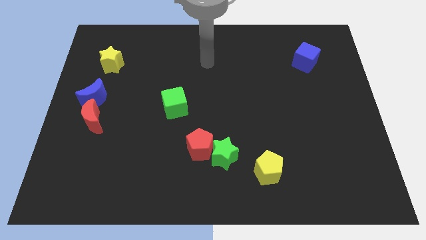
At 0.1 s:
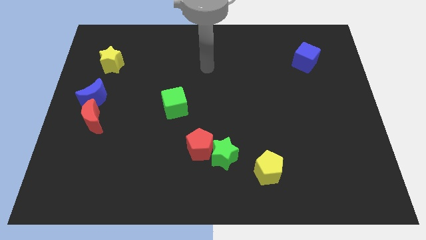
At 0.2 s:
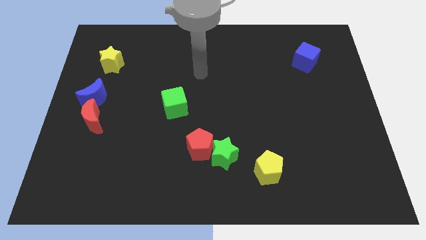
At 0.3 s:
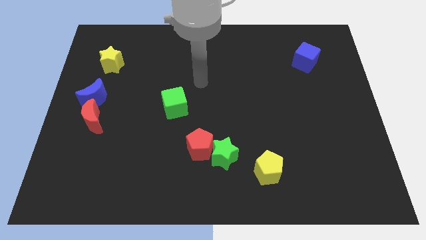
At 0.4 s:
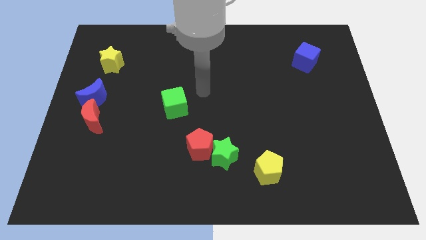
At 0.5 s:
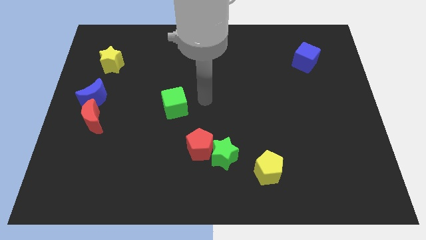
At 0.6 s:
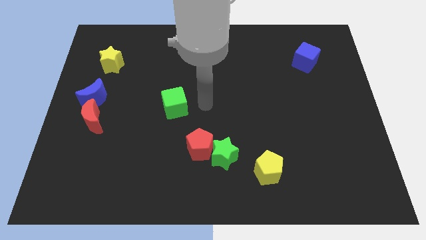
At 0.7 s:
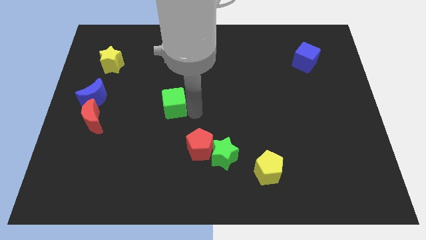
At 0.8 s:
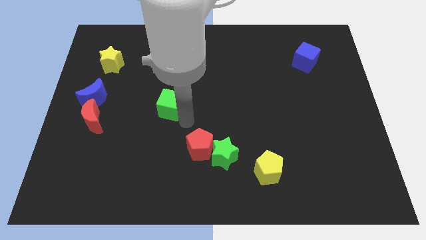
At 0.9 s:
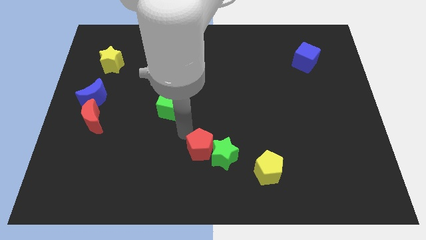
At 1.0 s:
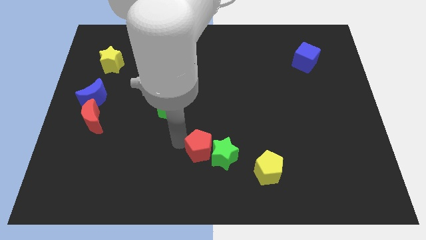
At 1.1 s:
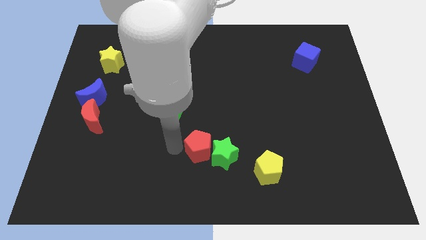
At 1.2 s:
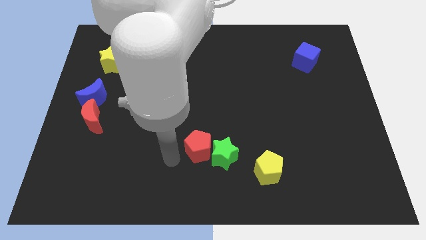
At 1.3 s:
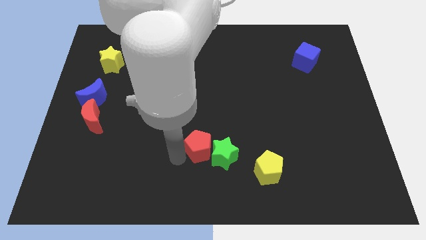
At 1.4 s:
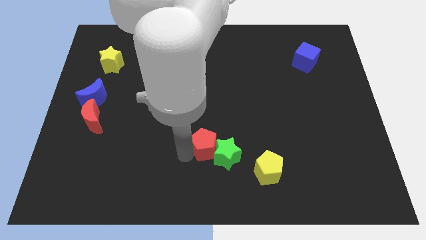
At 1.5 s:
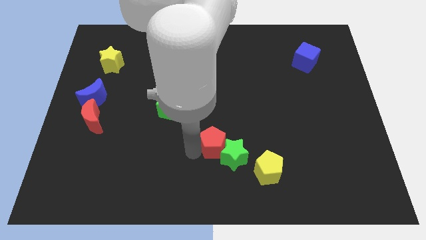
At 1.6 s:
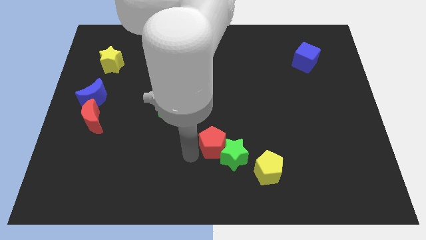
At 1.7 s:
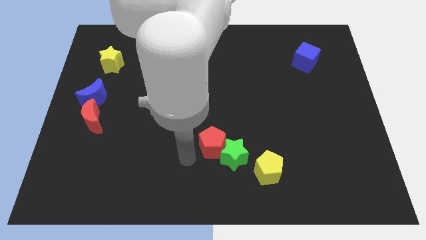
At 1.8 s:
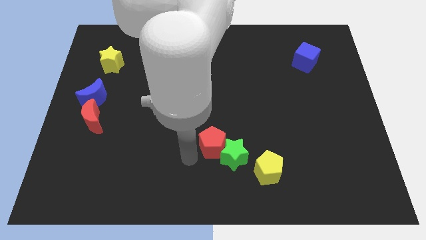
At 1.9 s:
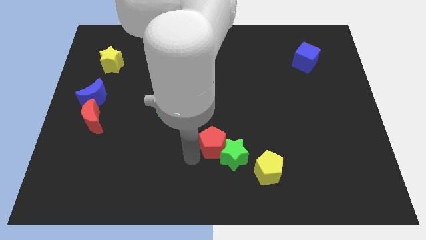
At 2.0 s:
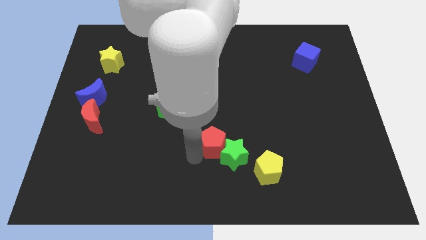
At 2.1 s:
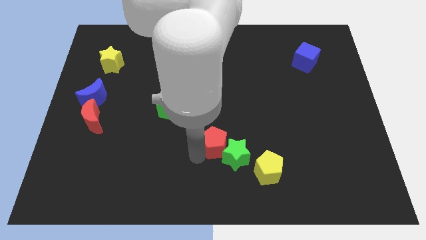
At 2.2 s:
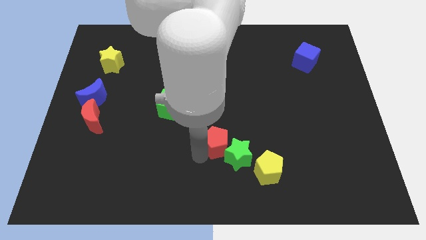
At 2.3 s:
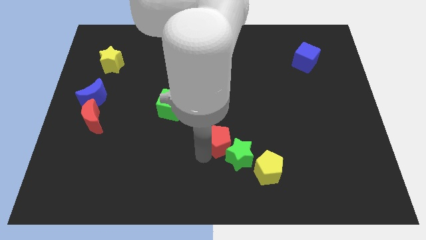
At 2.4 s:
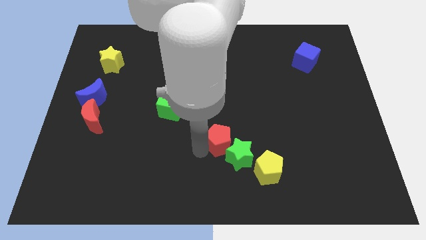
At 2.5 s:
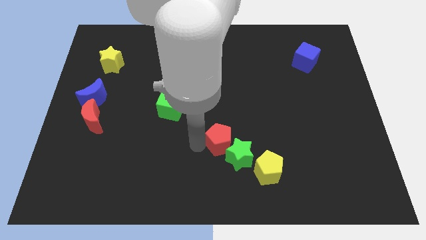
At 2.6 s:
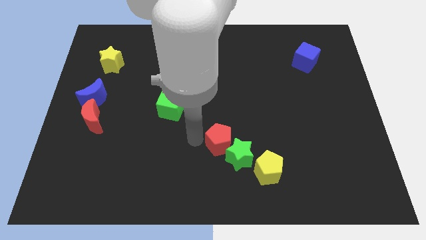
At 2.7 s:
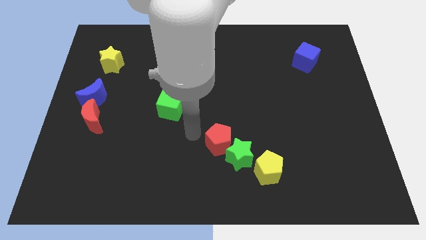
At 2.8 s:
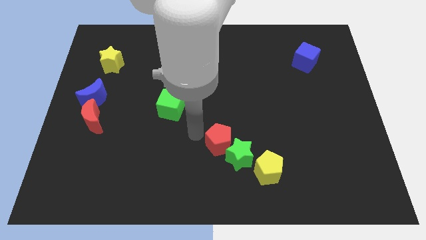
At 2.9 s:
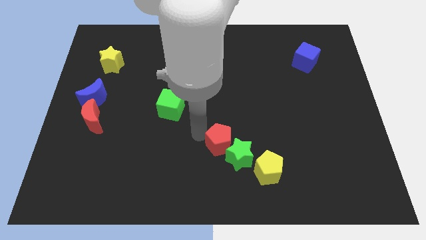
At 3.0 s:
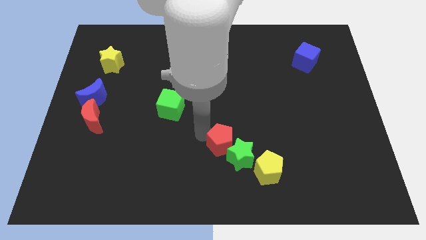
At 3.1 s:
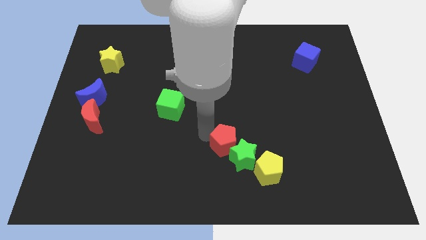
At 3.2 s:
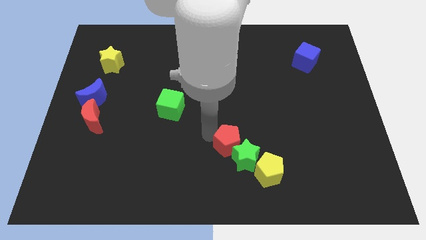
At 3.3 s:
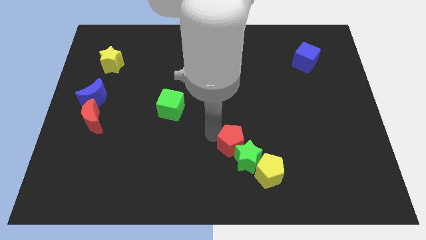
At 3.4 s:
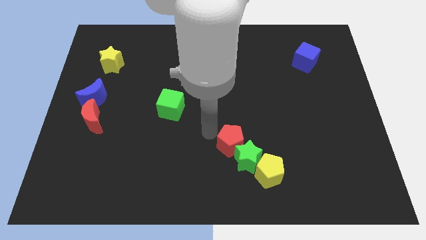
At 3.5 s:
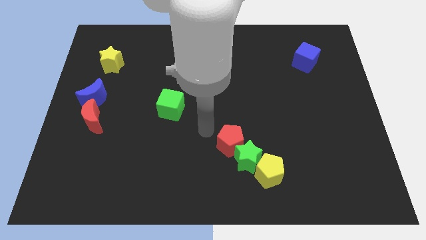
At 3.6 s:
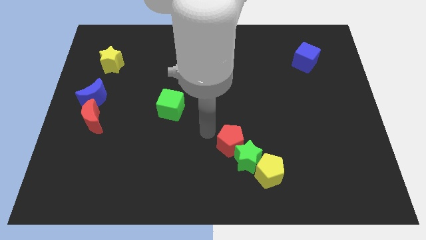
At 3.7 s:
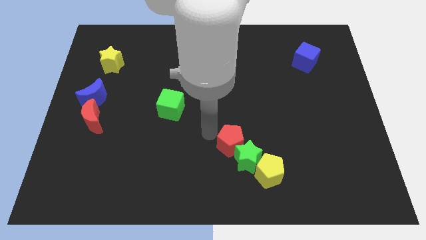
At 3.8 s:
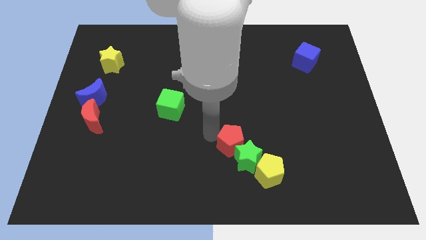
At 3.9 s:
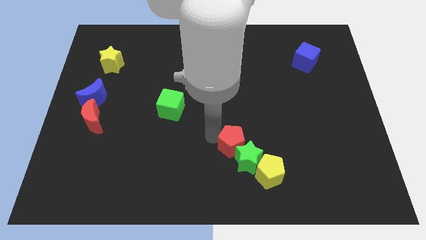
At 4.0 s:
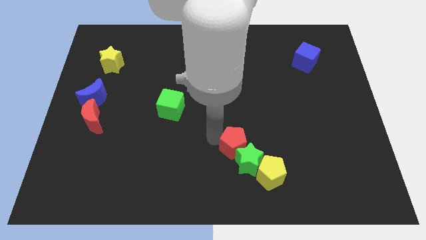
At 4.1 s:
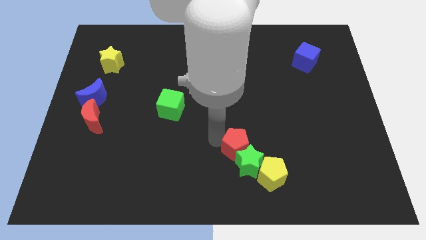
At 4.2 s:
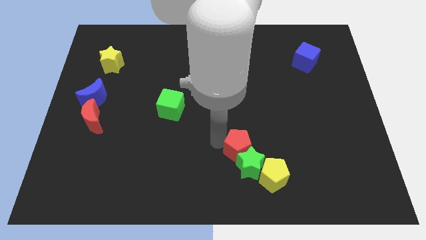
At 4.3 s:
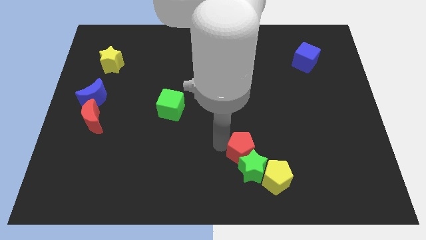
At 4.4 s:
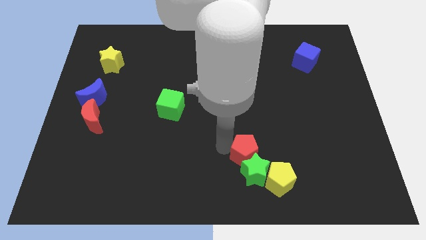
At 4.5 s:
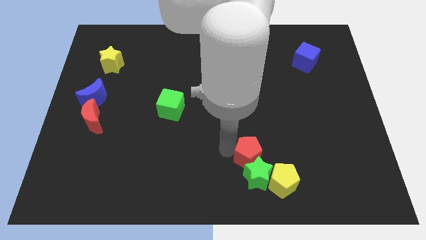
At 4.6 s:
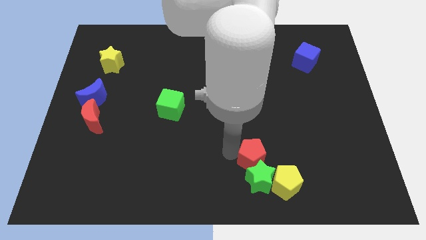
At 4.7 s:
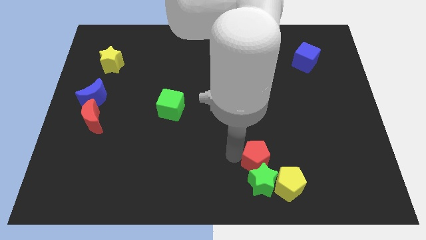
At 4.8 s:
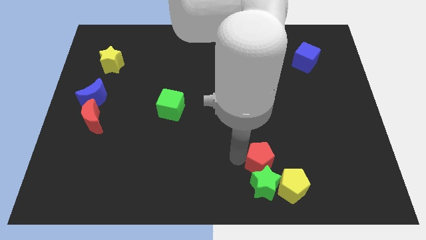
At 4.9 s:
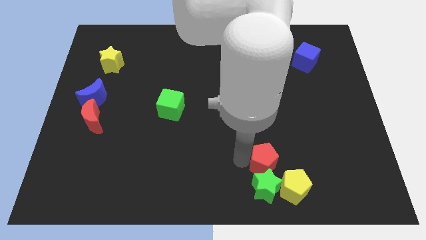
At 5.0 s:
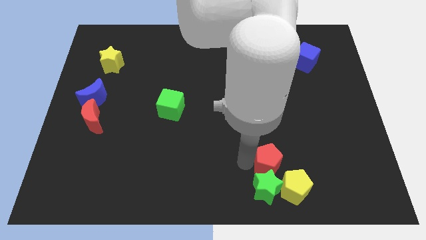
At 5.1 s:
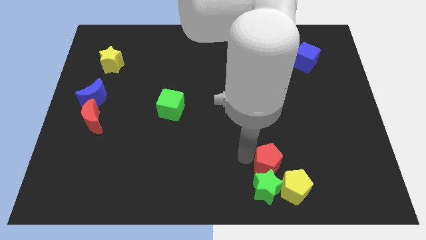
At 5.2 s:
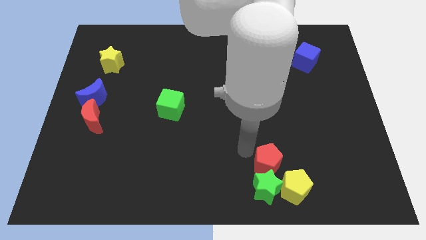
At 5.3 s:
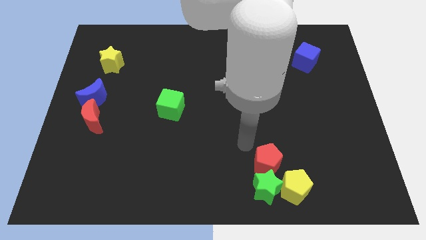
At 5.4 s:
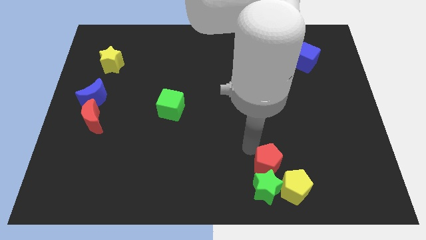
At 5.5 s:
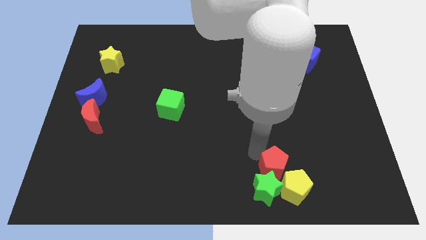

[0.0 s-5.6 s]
move the red pentagon to the yellow pentagon

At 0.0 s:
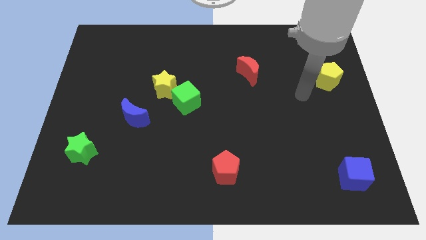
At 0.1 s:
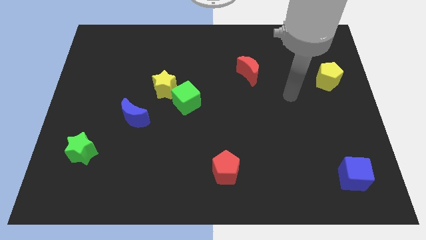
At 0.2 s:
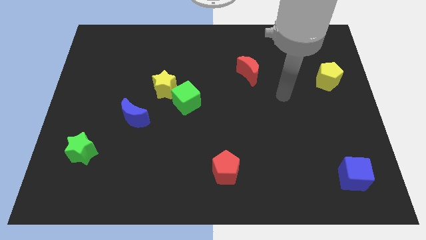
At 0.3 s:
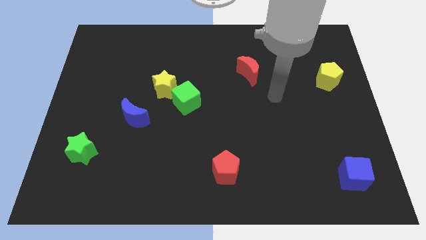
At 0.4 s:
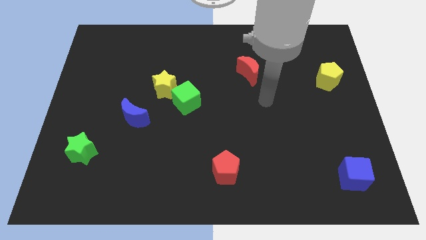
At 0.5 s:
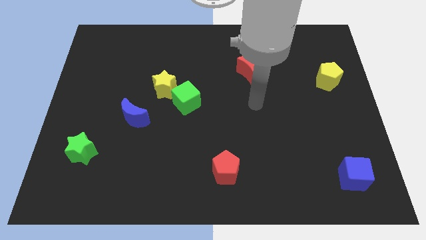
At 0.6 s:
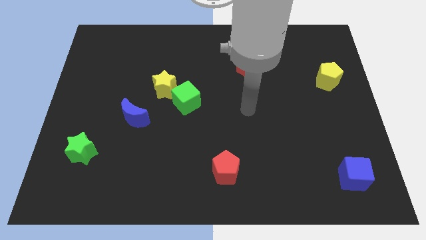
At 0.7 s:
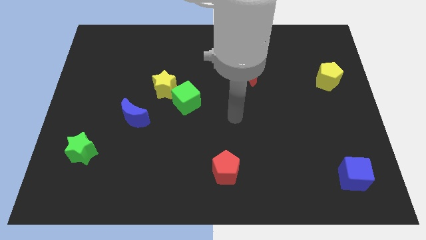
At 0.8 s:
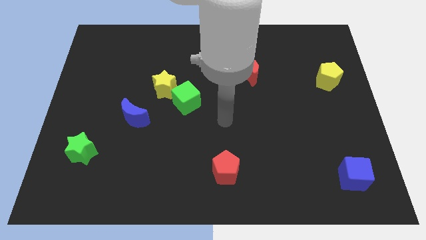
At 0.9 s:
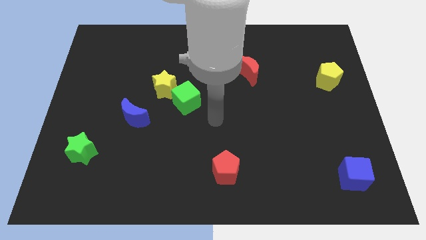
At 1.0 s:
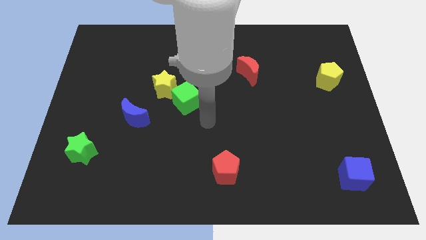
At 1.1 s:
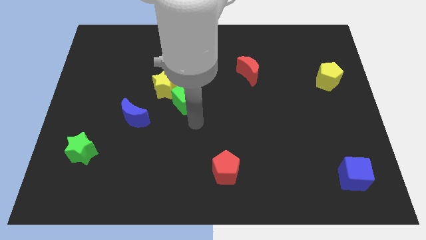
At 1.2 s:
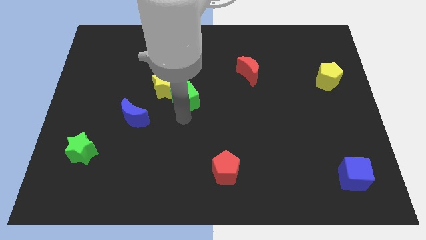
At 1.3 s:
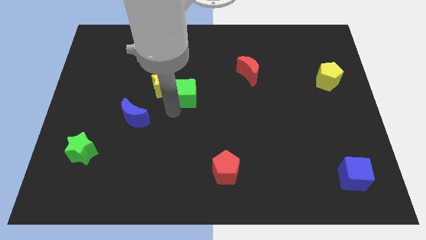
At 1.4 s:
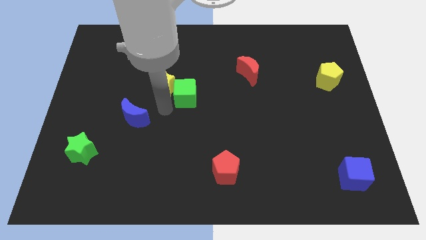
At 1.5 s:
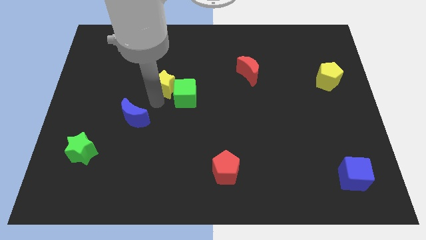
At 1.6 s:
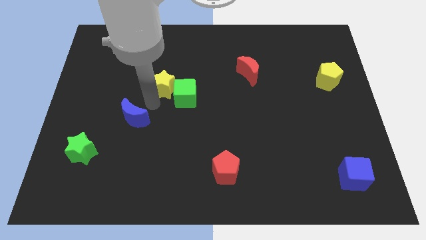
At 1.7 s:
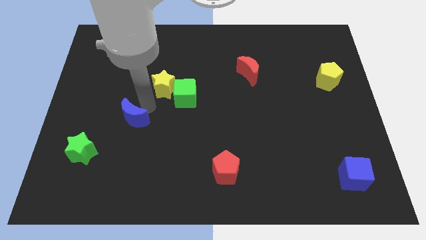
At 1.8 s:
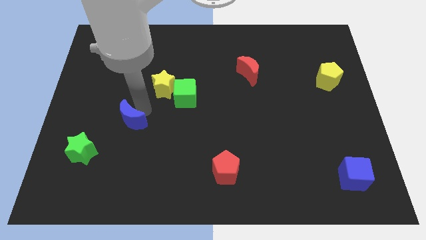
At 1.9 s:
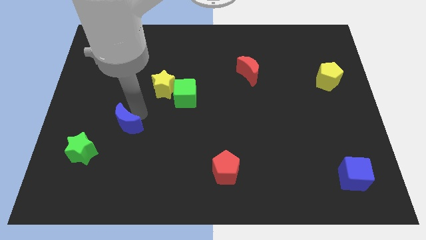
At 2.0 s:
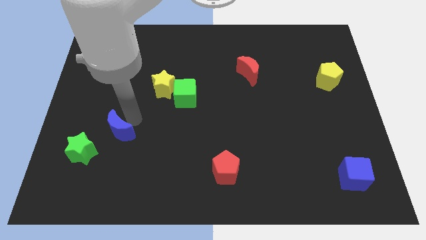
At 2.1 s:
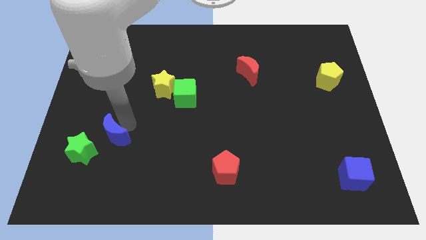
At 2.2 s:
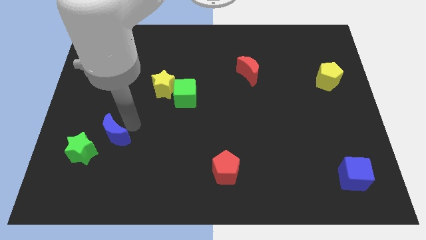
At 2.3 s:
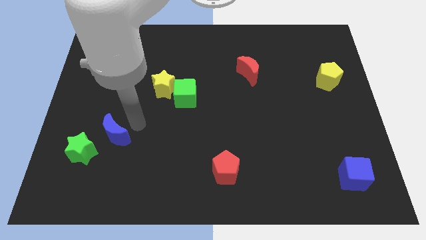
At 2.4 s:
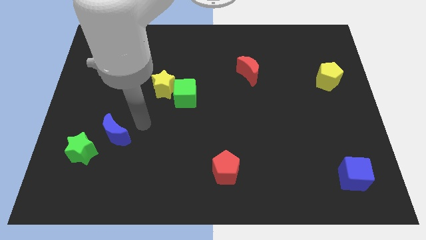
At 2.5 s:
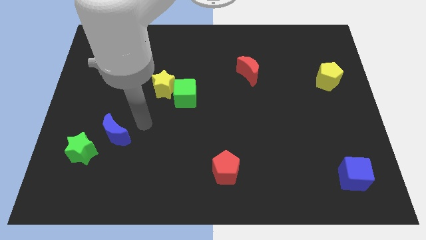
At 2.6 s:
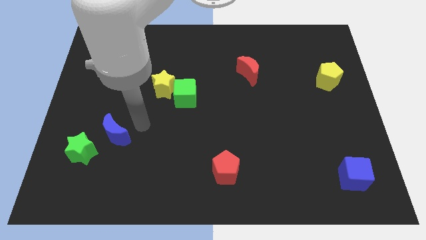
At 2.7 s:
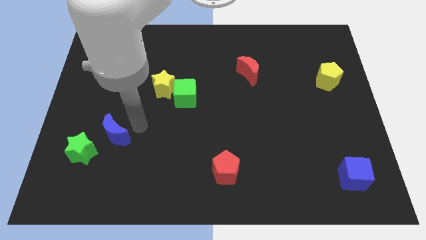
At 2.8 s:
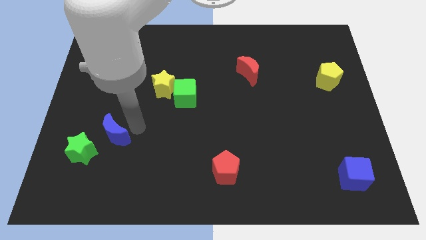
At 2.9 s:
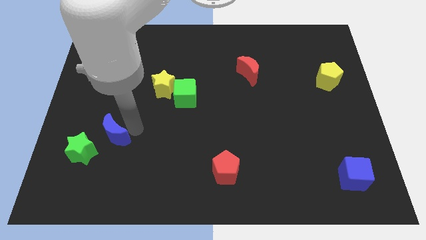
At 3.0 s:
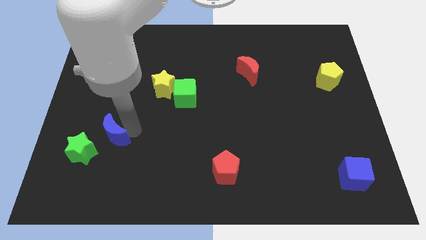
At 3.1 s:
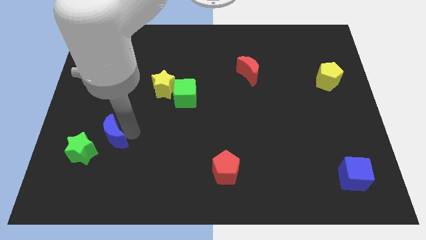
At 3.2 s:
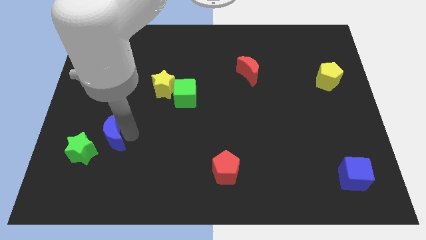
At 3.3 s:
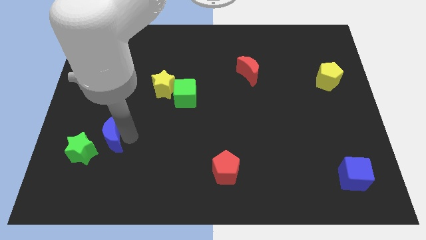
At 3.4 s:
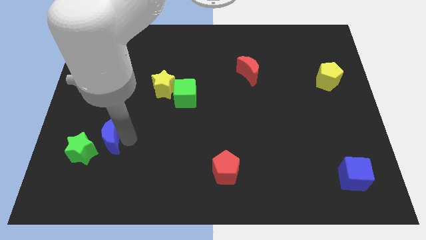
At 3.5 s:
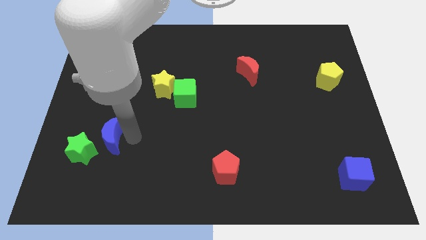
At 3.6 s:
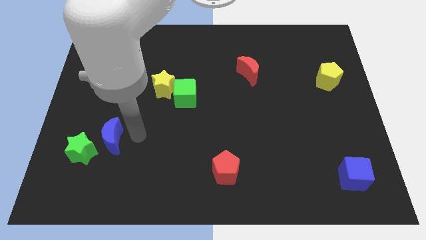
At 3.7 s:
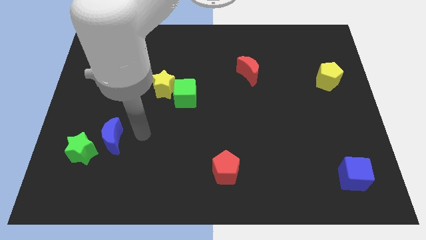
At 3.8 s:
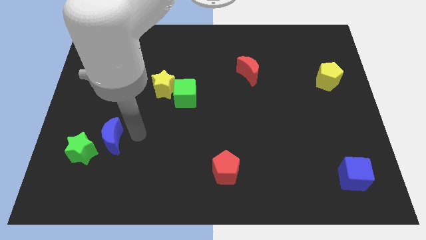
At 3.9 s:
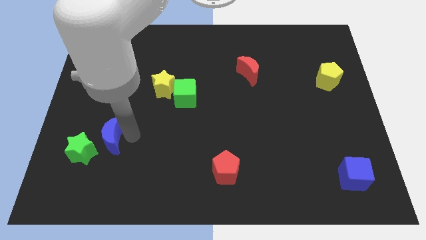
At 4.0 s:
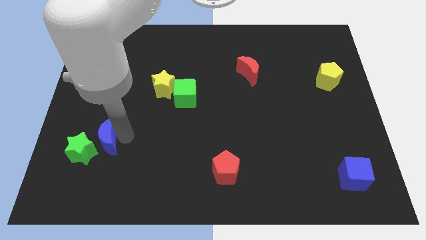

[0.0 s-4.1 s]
slide the blue moon to the green star
